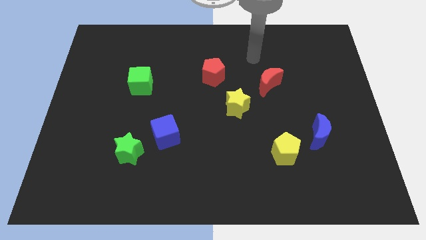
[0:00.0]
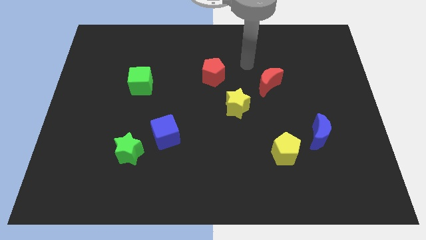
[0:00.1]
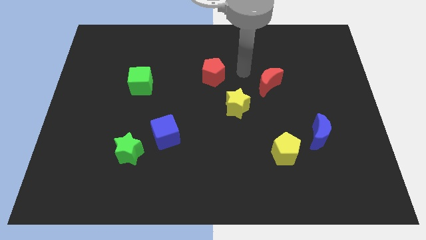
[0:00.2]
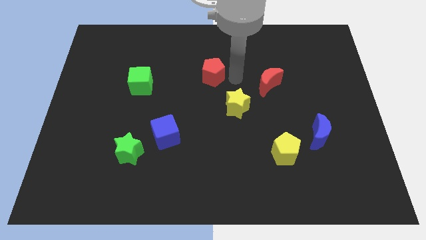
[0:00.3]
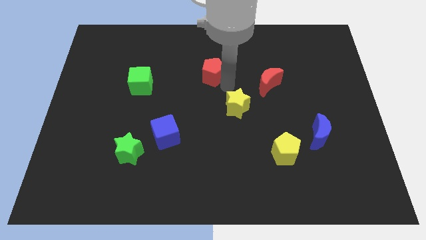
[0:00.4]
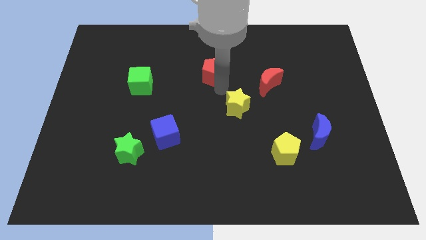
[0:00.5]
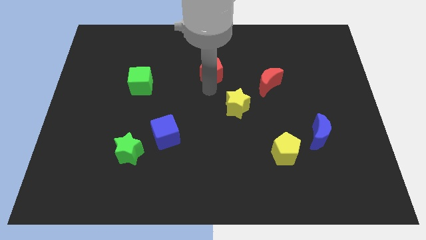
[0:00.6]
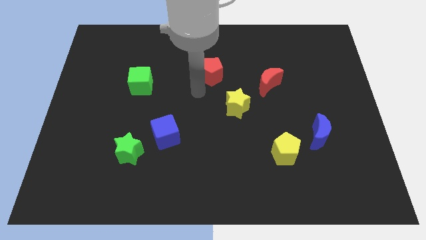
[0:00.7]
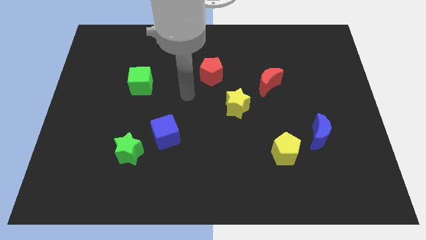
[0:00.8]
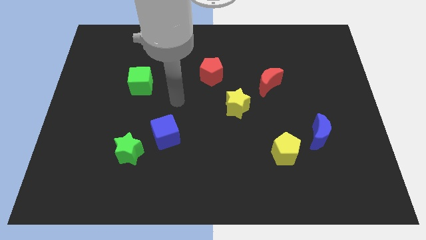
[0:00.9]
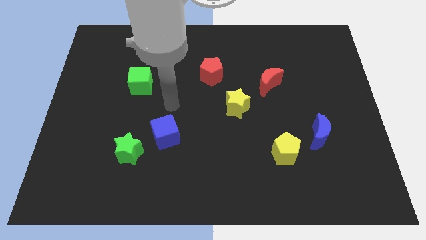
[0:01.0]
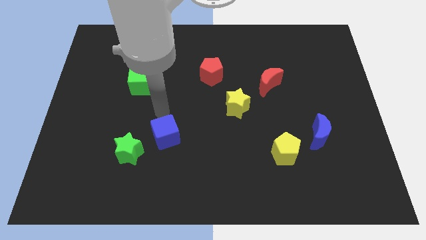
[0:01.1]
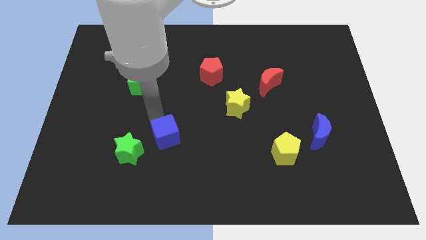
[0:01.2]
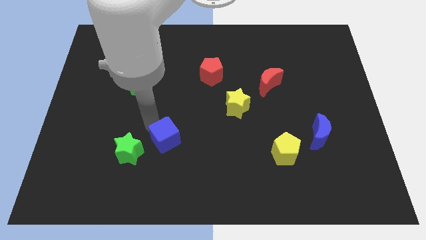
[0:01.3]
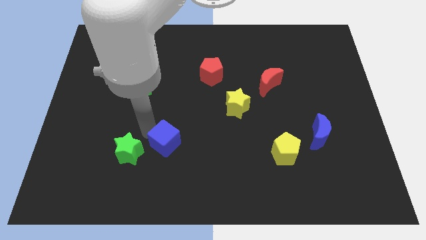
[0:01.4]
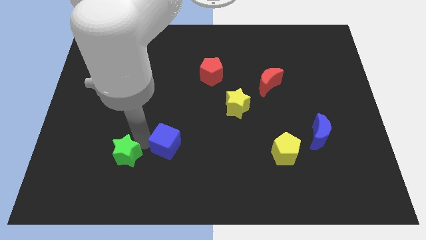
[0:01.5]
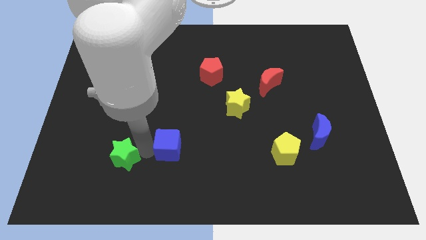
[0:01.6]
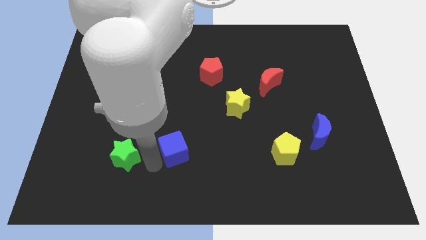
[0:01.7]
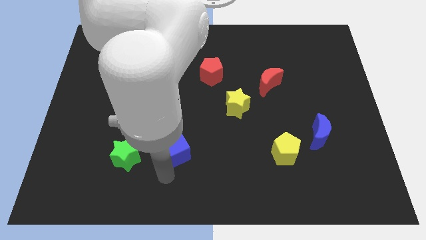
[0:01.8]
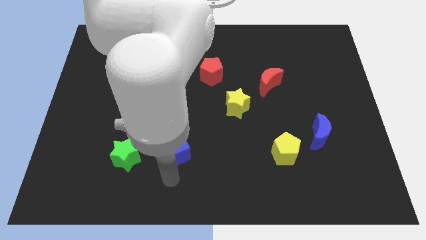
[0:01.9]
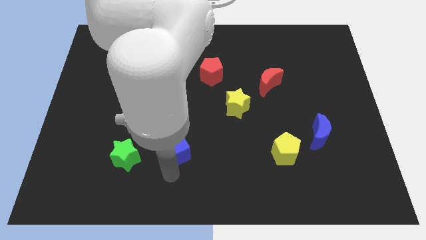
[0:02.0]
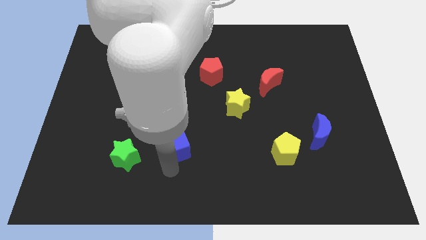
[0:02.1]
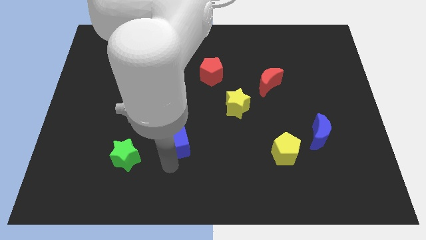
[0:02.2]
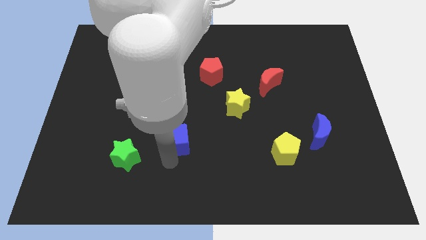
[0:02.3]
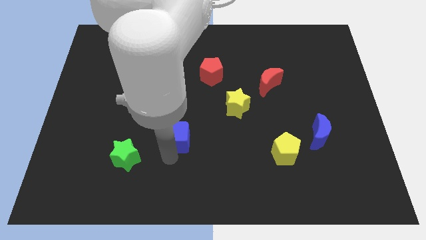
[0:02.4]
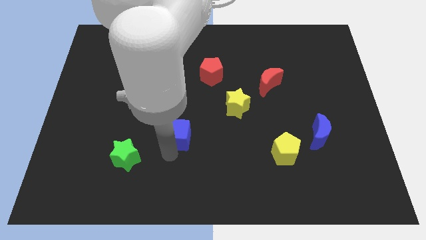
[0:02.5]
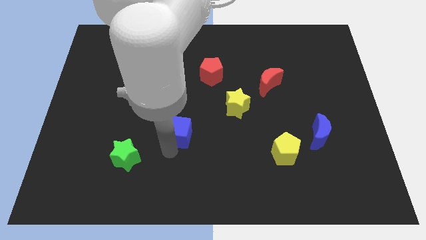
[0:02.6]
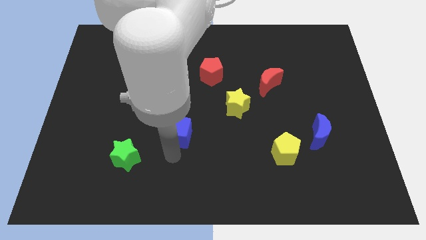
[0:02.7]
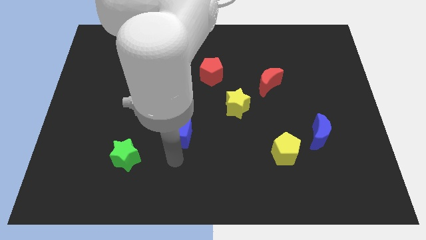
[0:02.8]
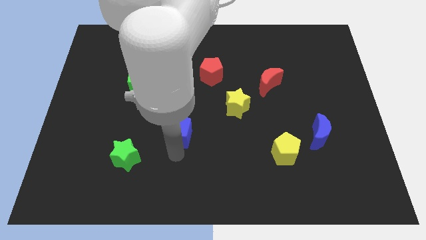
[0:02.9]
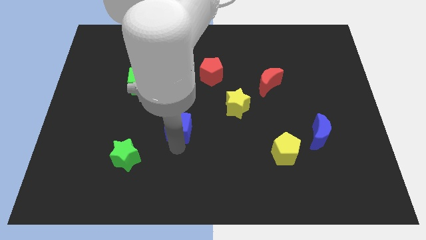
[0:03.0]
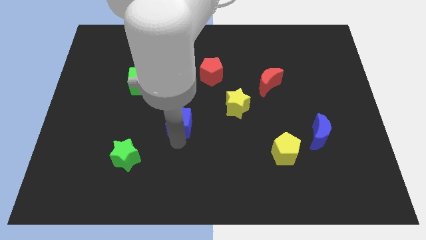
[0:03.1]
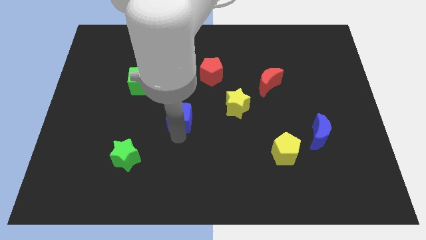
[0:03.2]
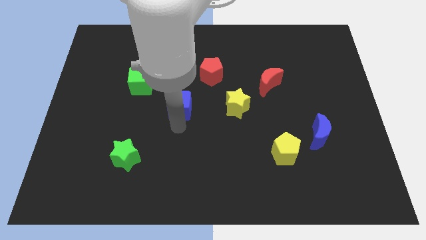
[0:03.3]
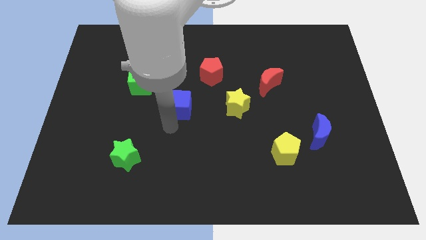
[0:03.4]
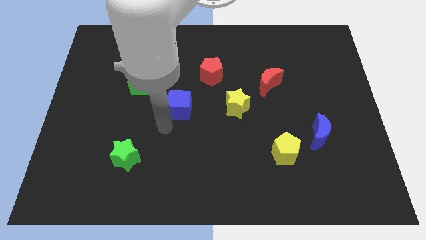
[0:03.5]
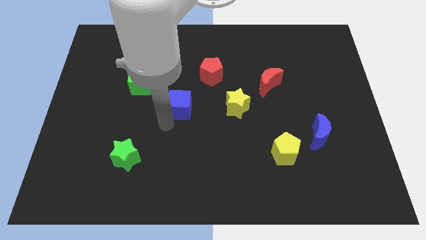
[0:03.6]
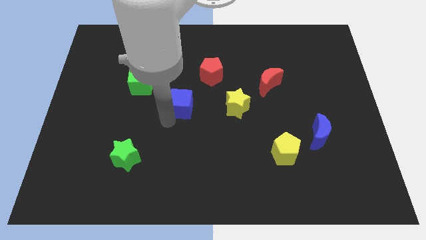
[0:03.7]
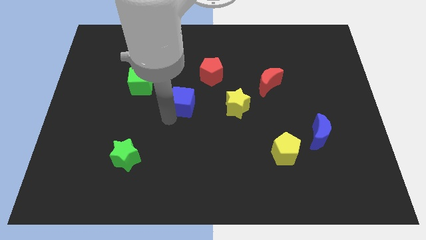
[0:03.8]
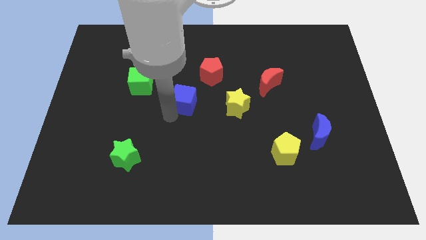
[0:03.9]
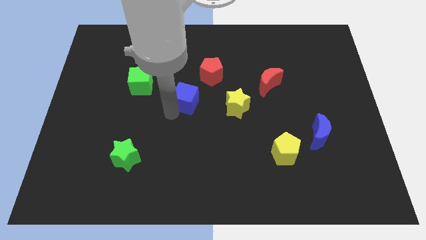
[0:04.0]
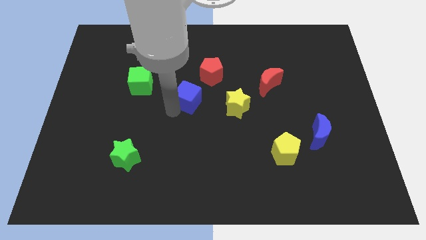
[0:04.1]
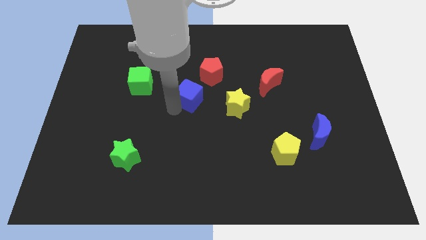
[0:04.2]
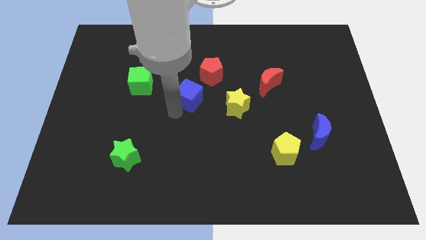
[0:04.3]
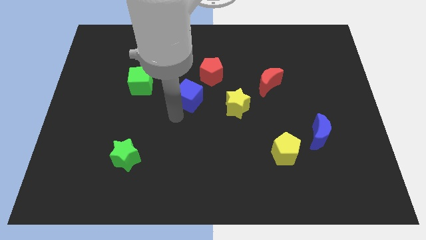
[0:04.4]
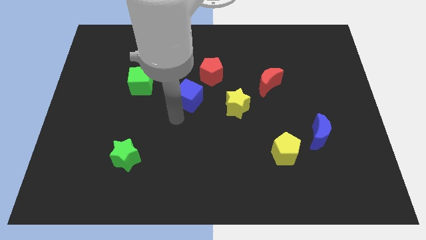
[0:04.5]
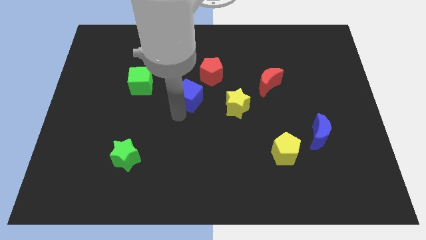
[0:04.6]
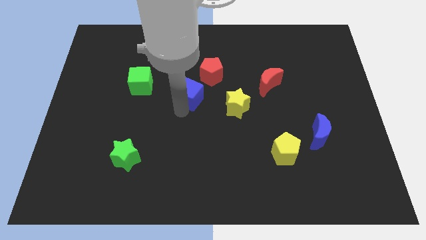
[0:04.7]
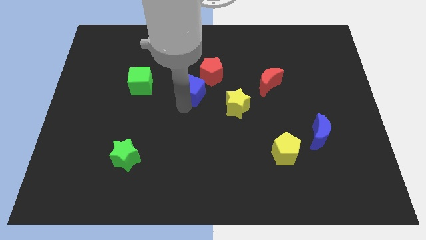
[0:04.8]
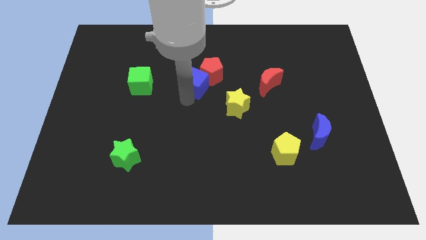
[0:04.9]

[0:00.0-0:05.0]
push the blue cube towards the red pentagon

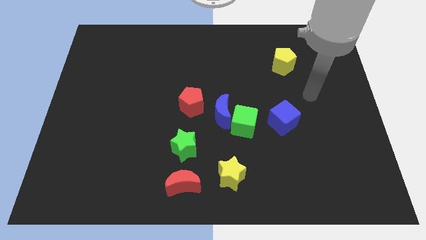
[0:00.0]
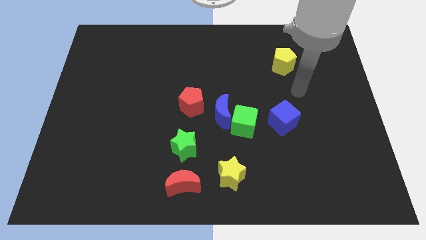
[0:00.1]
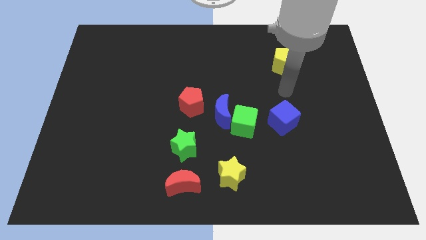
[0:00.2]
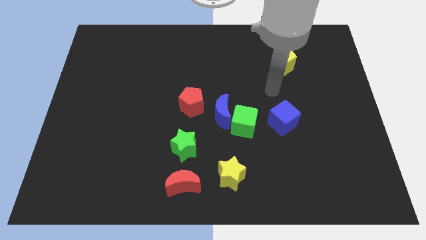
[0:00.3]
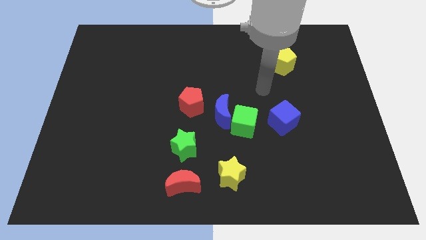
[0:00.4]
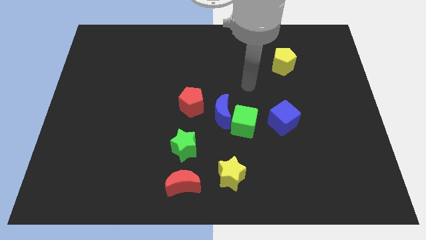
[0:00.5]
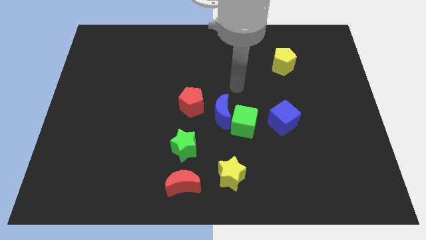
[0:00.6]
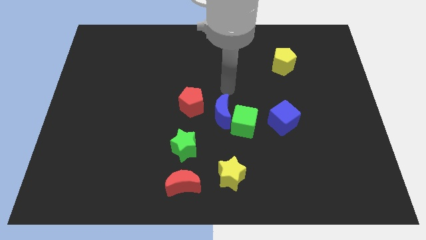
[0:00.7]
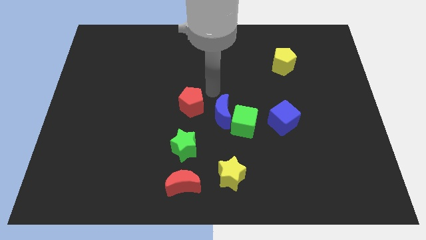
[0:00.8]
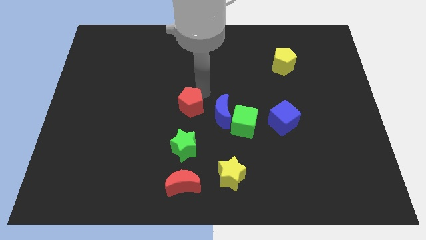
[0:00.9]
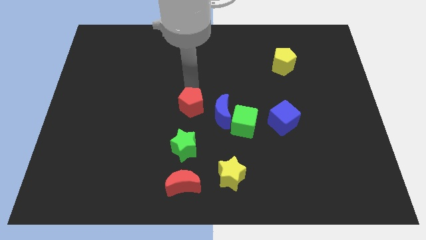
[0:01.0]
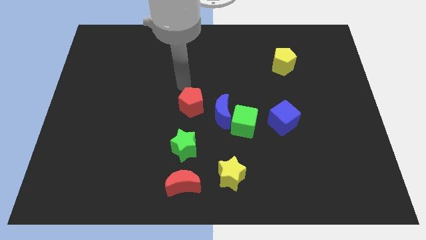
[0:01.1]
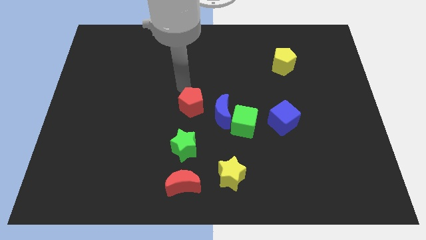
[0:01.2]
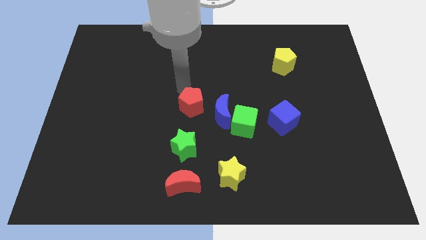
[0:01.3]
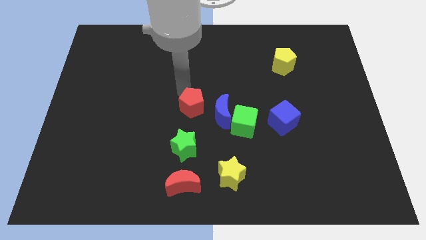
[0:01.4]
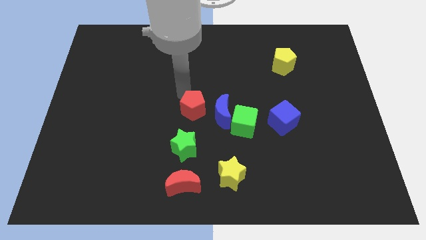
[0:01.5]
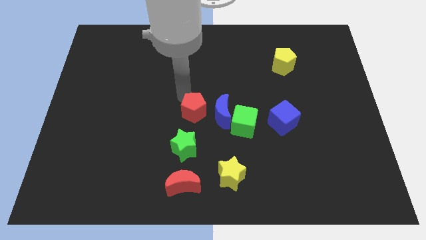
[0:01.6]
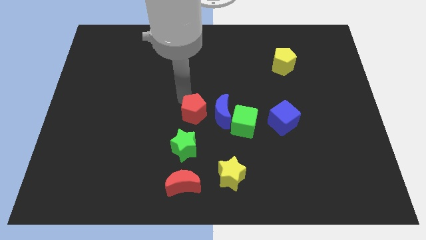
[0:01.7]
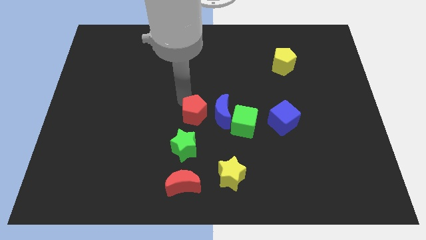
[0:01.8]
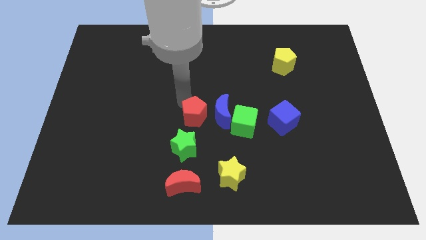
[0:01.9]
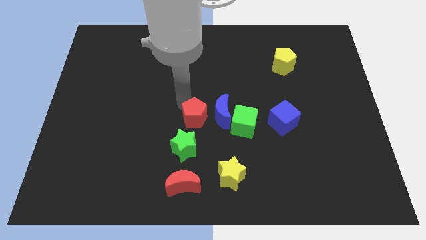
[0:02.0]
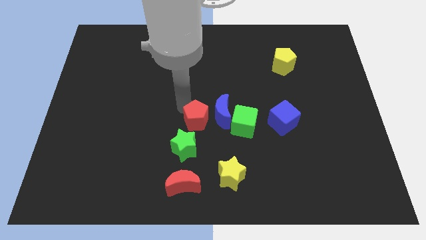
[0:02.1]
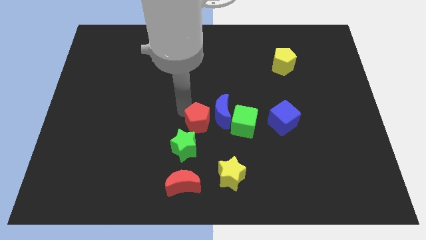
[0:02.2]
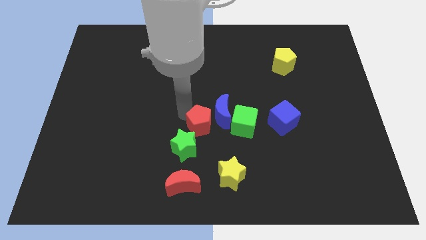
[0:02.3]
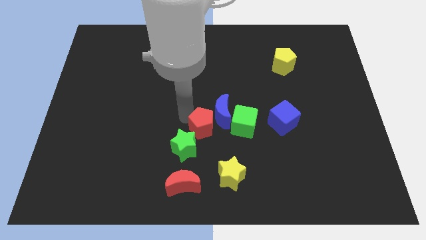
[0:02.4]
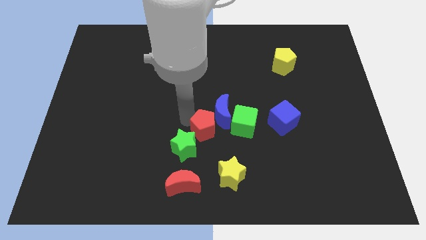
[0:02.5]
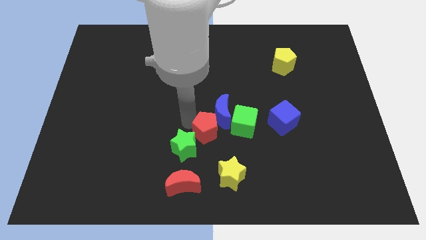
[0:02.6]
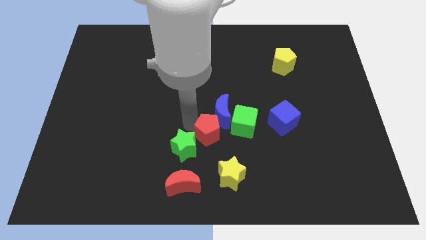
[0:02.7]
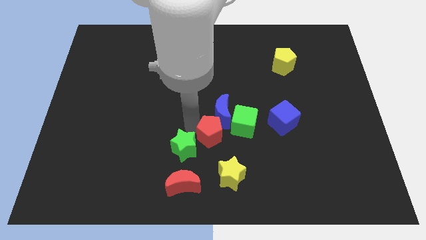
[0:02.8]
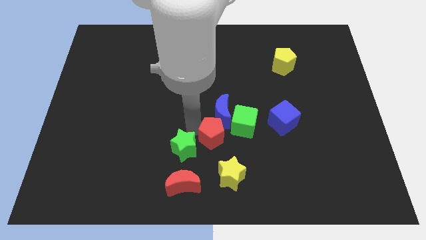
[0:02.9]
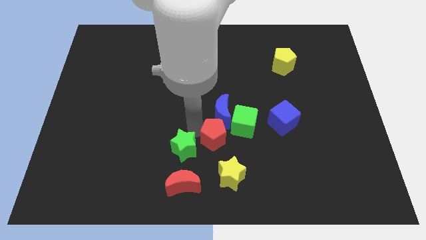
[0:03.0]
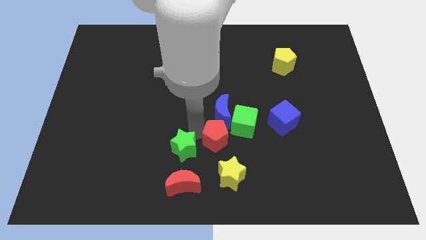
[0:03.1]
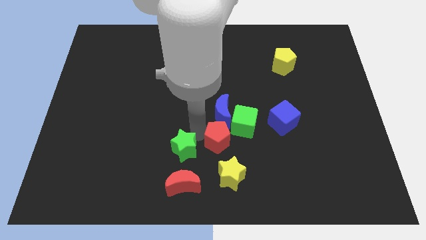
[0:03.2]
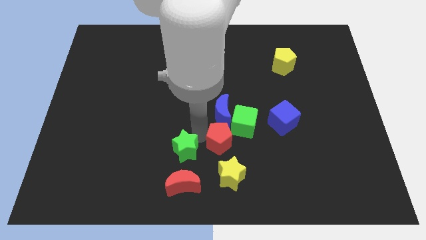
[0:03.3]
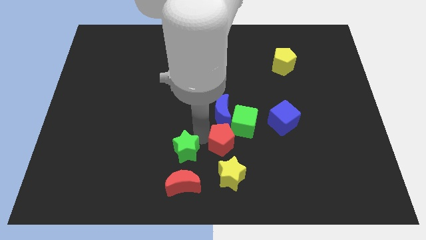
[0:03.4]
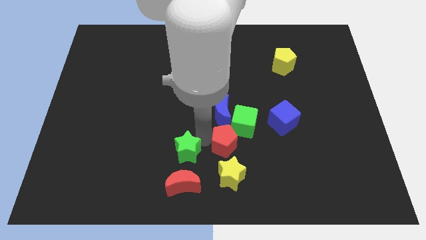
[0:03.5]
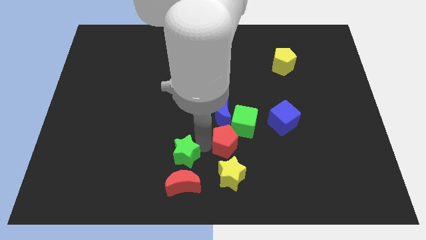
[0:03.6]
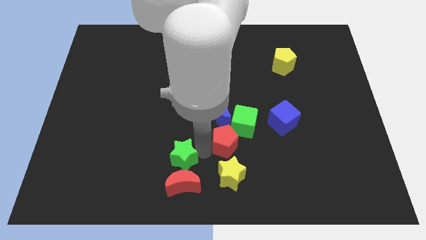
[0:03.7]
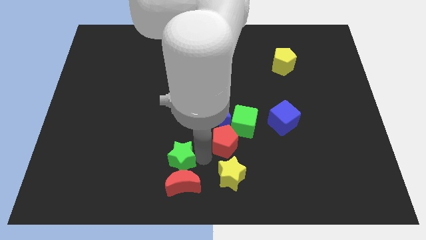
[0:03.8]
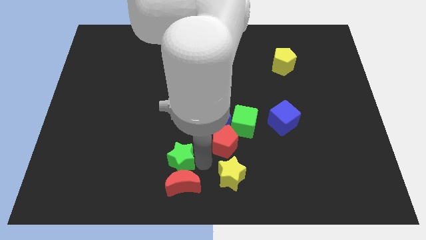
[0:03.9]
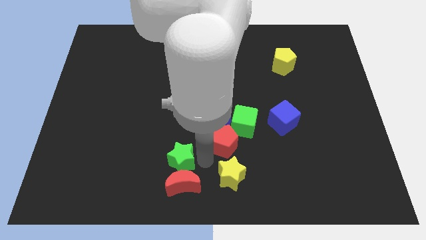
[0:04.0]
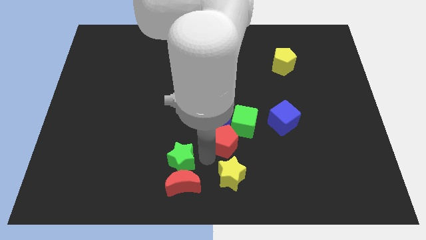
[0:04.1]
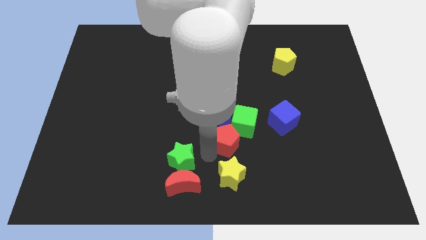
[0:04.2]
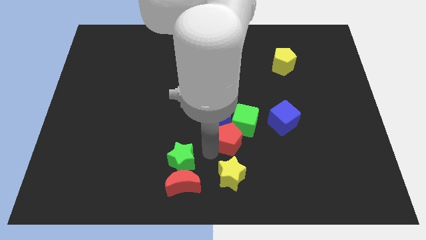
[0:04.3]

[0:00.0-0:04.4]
move the red pentagon to the green cube
